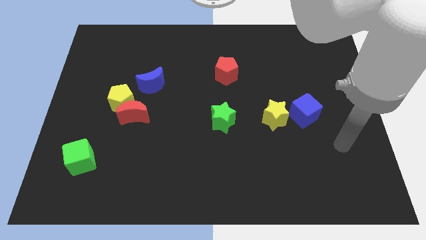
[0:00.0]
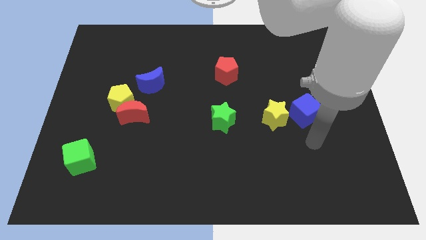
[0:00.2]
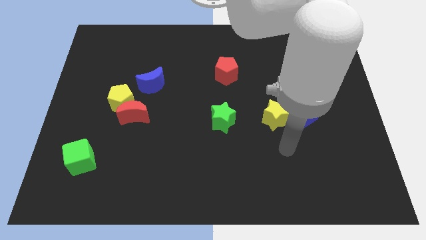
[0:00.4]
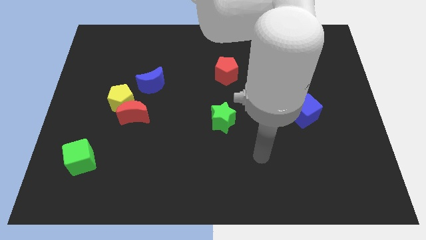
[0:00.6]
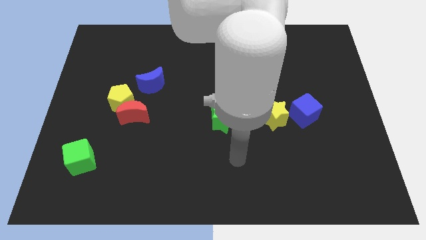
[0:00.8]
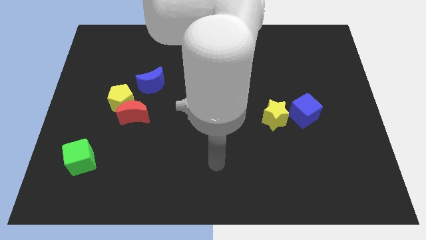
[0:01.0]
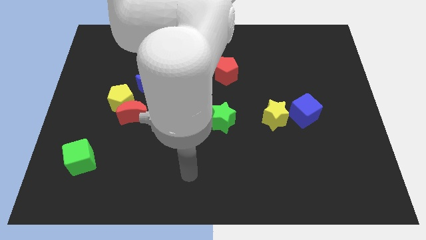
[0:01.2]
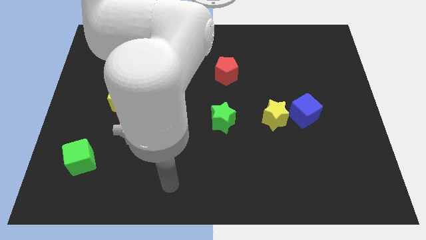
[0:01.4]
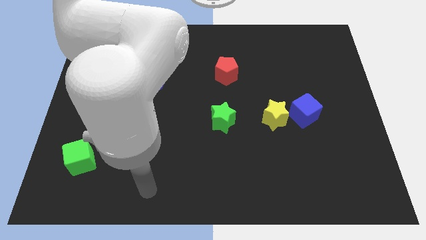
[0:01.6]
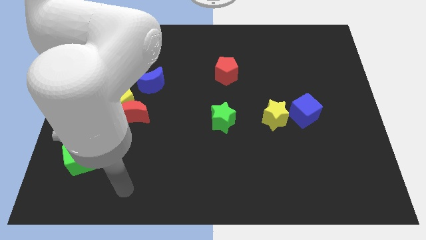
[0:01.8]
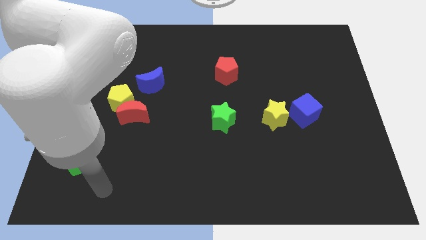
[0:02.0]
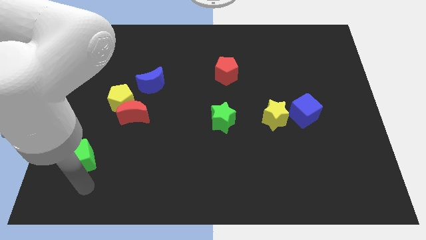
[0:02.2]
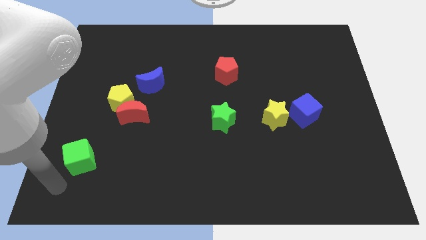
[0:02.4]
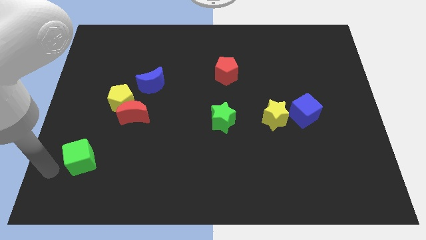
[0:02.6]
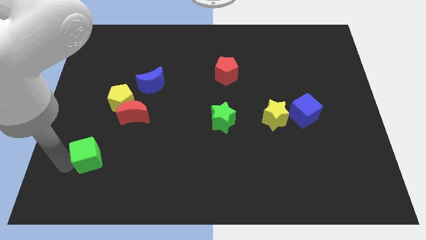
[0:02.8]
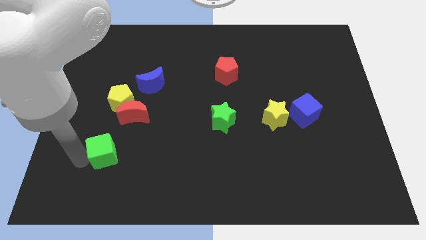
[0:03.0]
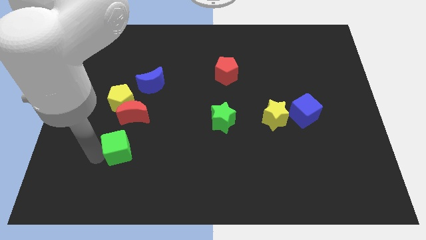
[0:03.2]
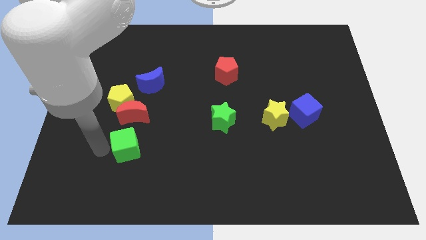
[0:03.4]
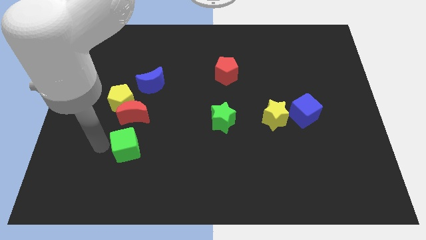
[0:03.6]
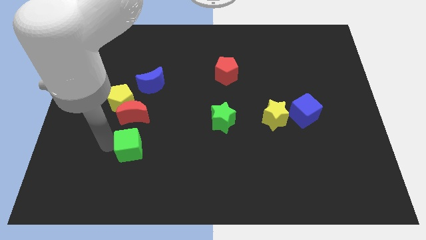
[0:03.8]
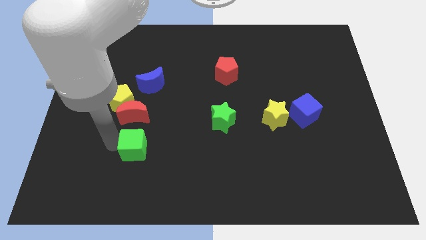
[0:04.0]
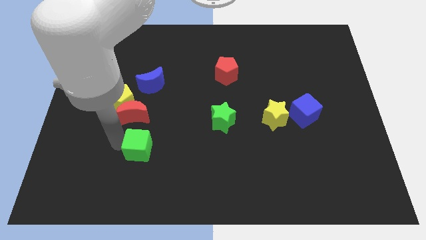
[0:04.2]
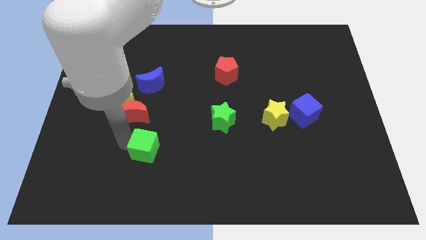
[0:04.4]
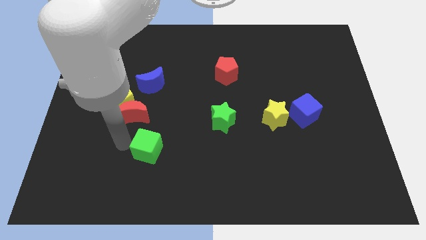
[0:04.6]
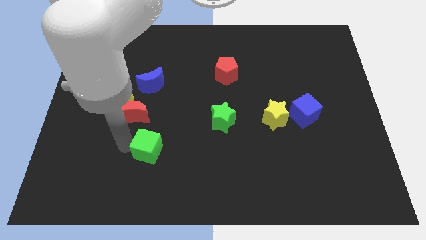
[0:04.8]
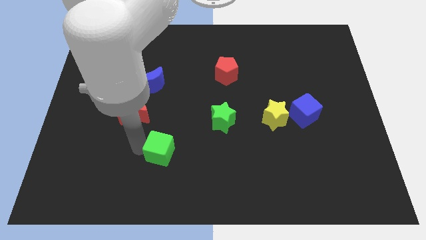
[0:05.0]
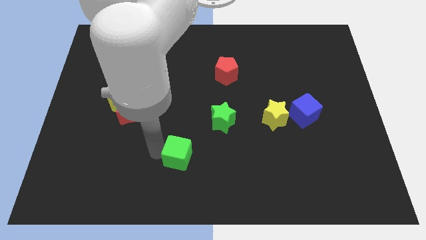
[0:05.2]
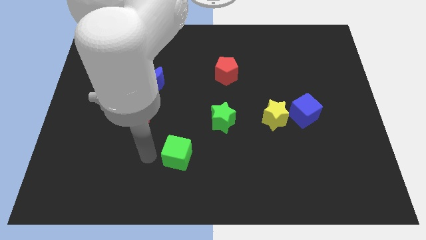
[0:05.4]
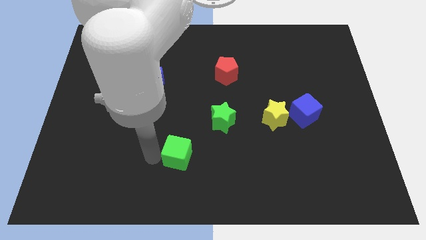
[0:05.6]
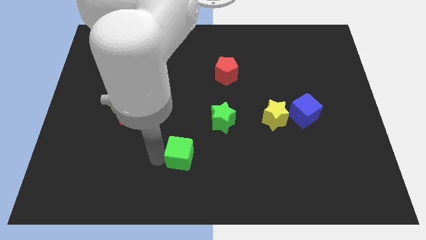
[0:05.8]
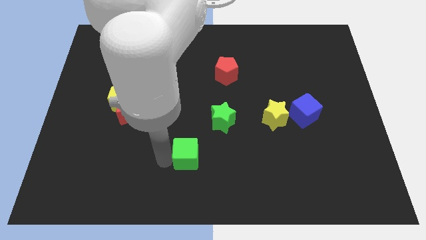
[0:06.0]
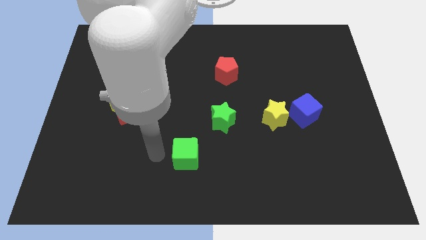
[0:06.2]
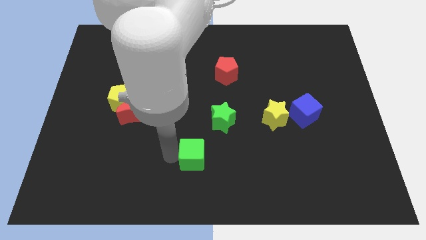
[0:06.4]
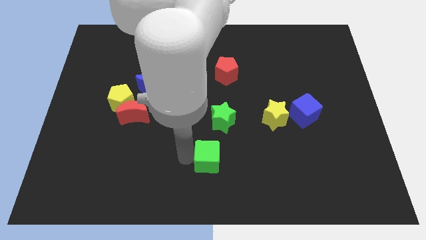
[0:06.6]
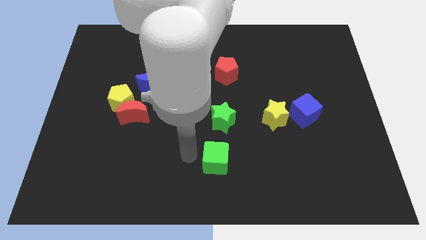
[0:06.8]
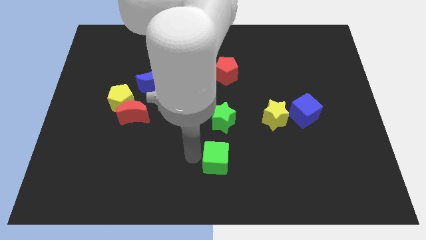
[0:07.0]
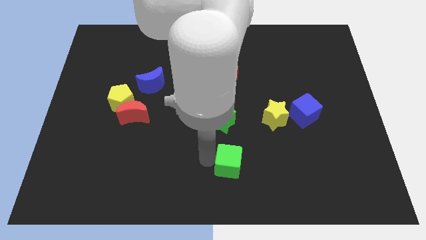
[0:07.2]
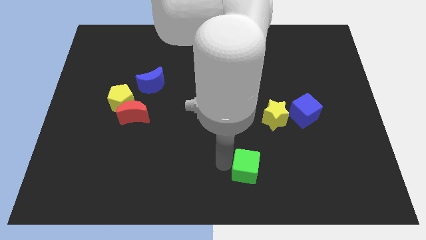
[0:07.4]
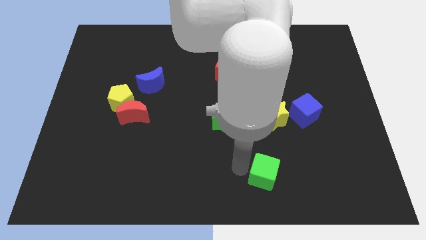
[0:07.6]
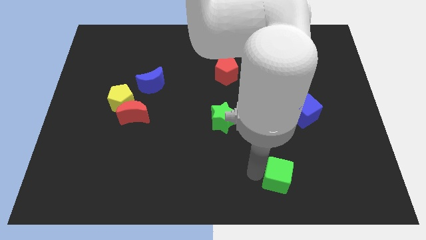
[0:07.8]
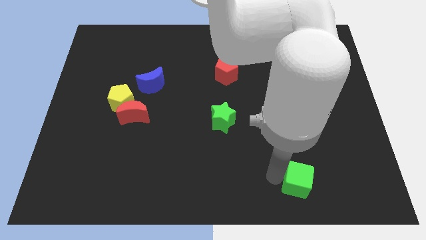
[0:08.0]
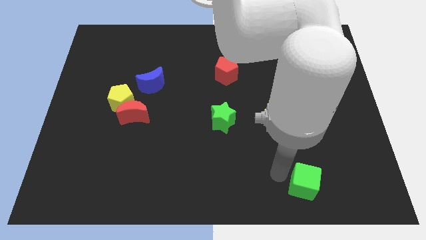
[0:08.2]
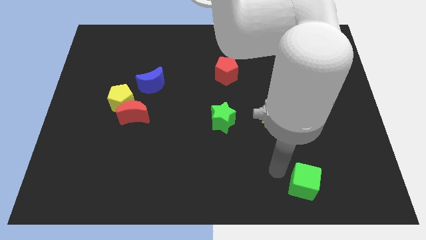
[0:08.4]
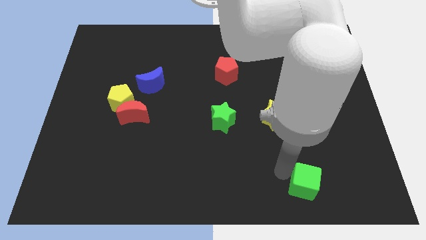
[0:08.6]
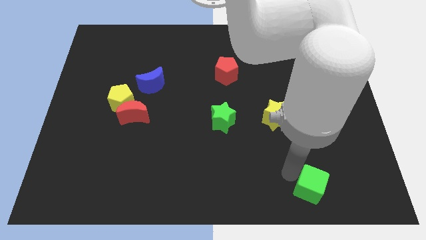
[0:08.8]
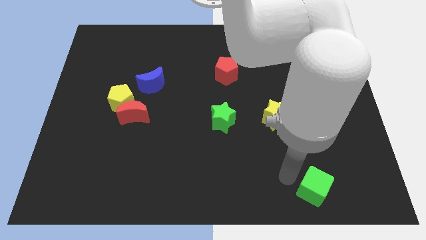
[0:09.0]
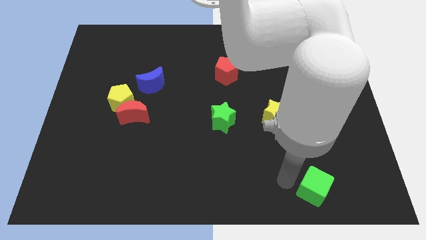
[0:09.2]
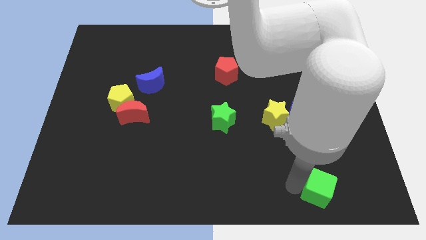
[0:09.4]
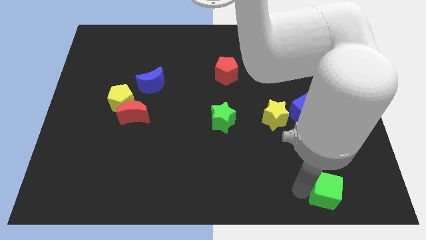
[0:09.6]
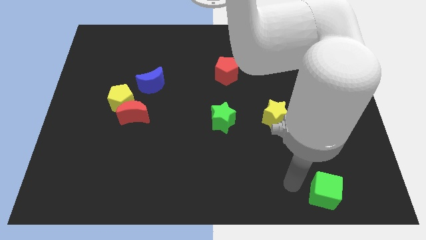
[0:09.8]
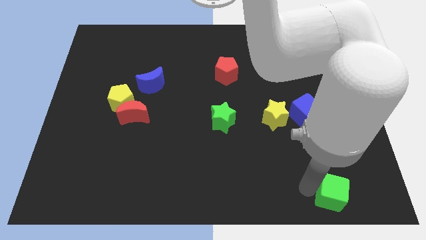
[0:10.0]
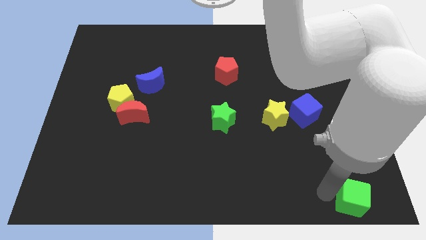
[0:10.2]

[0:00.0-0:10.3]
push the green cube to the bottom right

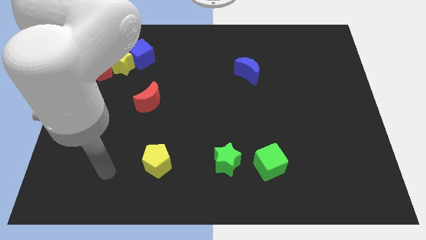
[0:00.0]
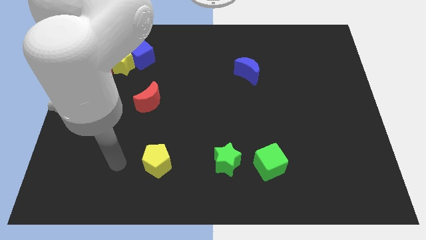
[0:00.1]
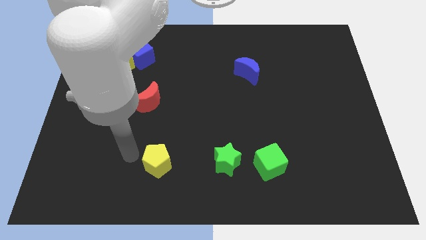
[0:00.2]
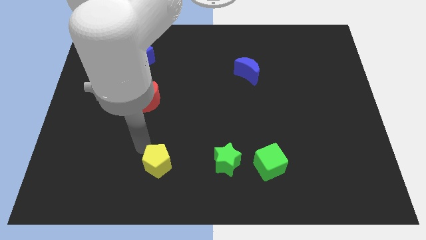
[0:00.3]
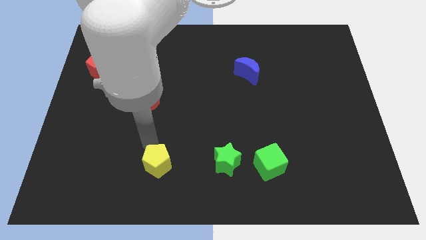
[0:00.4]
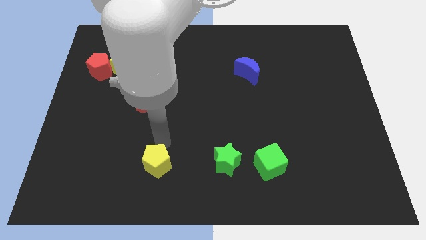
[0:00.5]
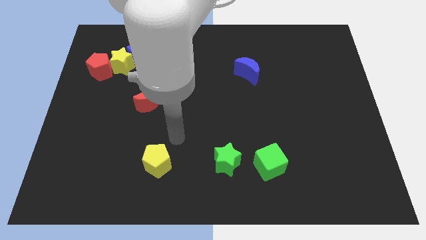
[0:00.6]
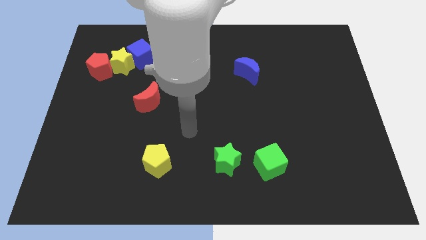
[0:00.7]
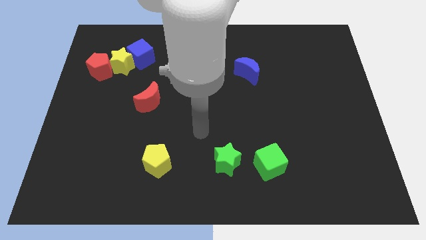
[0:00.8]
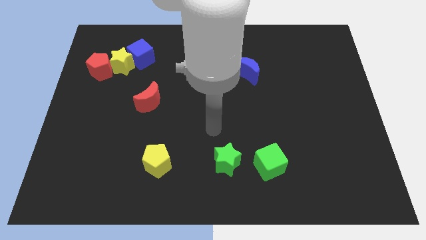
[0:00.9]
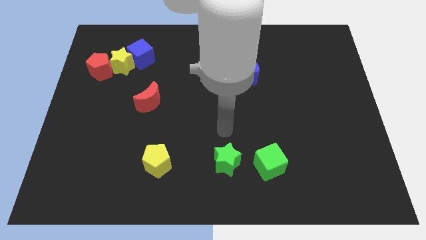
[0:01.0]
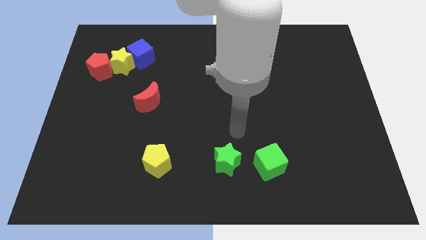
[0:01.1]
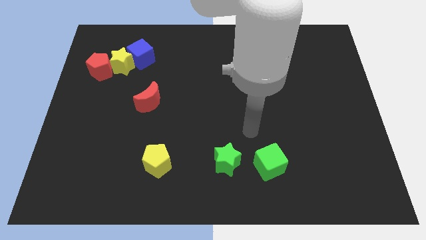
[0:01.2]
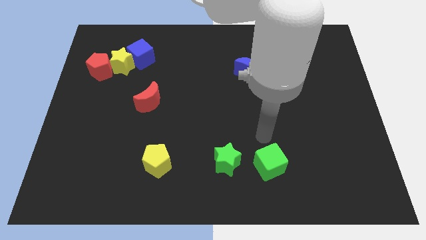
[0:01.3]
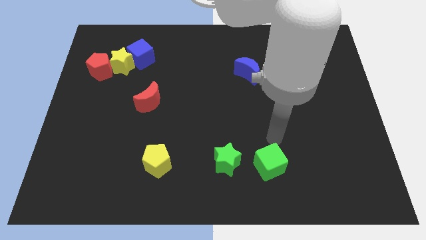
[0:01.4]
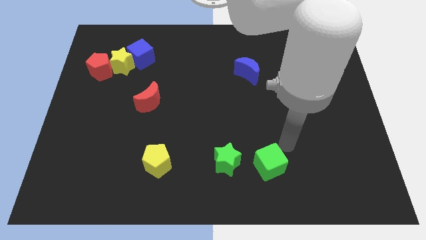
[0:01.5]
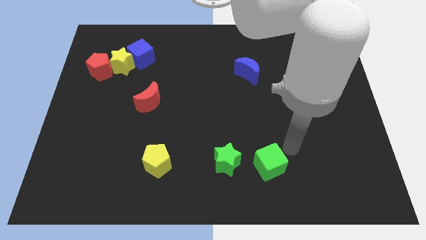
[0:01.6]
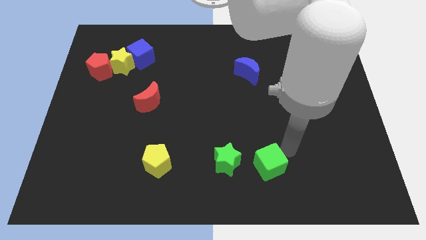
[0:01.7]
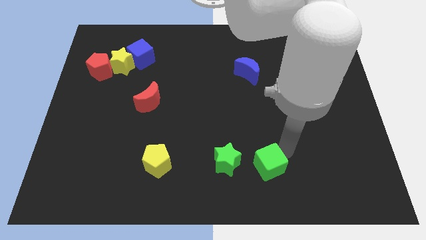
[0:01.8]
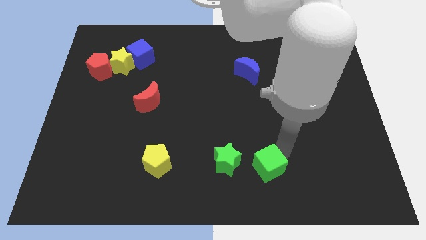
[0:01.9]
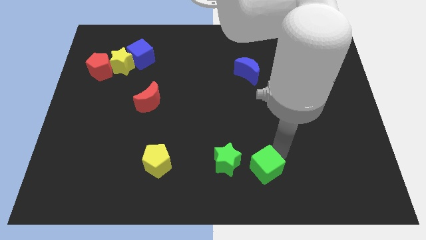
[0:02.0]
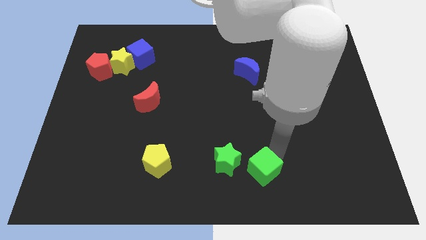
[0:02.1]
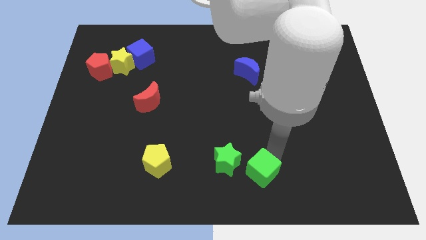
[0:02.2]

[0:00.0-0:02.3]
slide the green cube to the bottom
